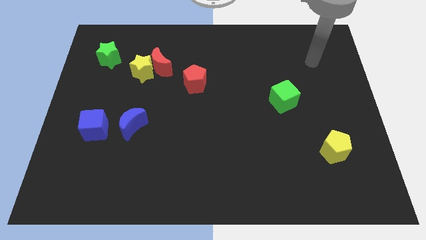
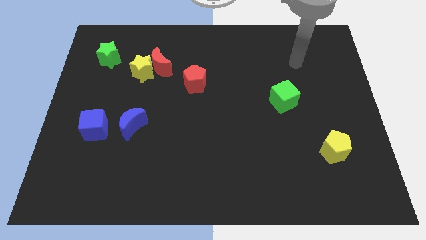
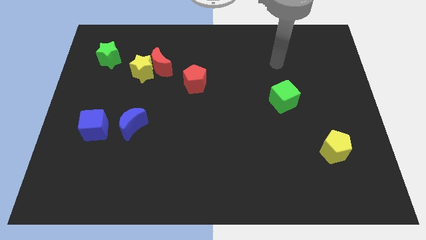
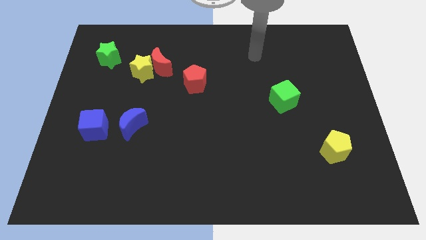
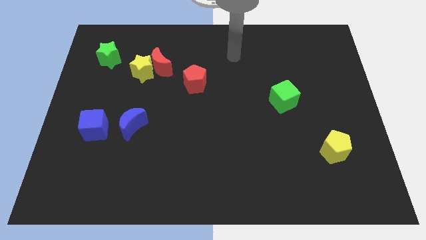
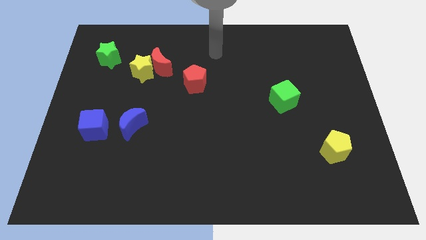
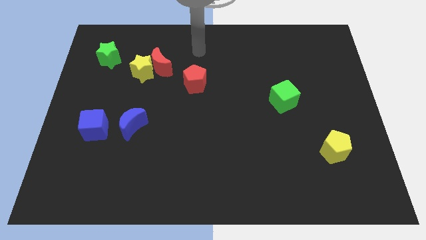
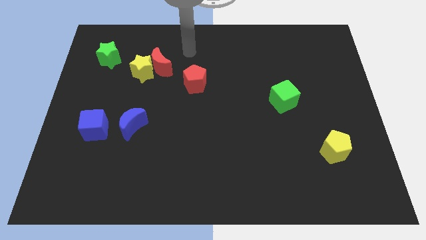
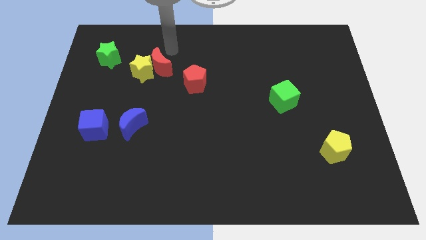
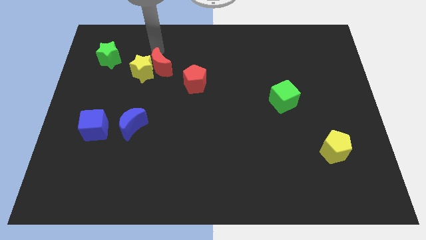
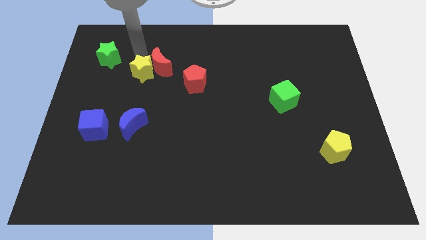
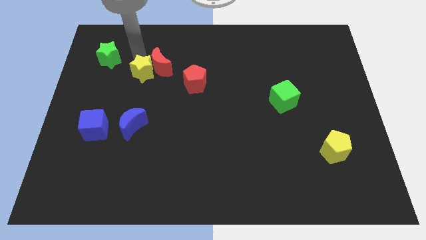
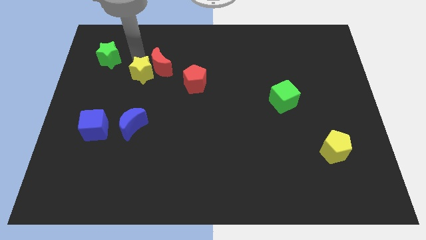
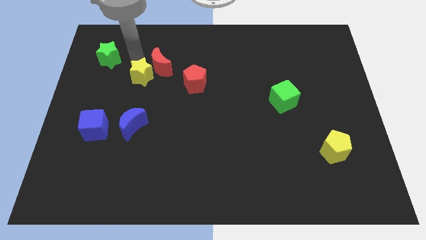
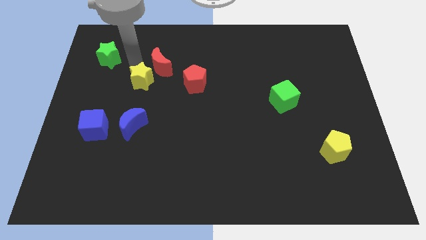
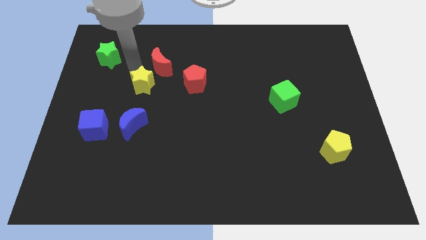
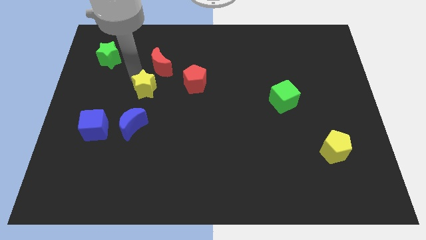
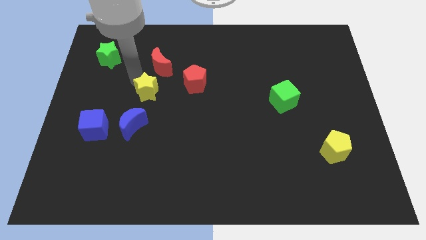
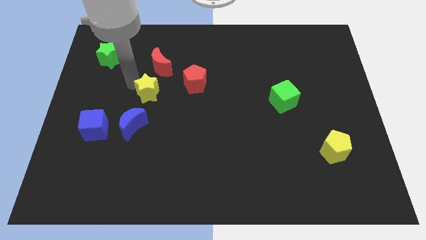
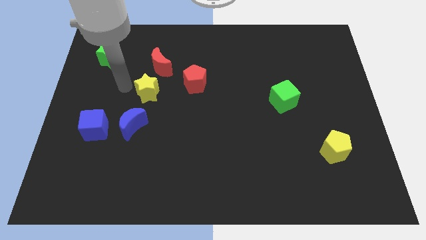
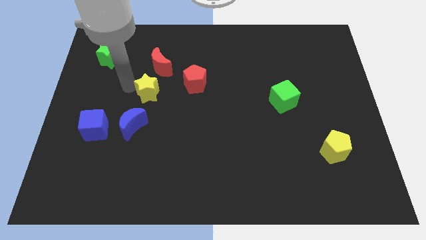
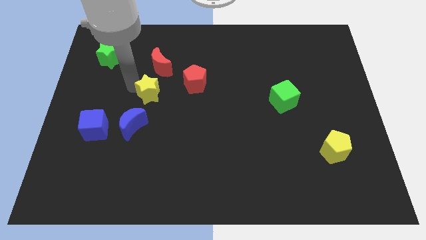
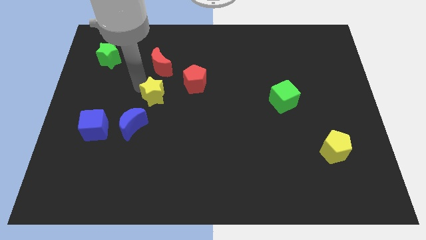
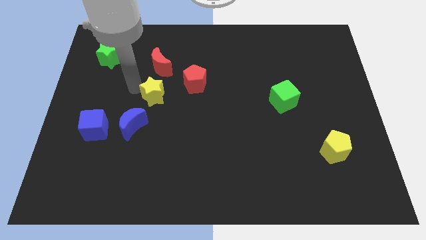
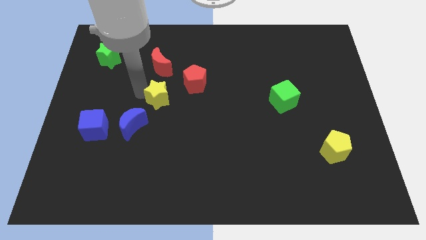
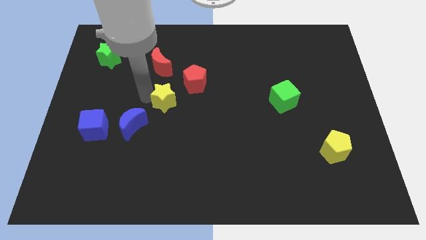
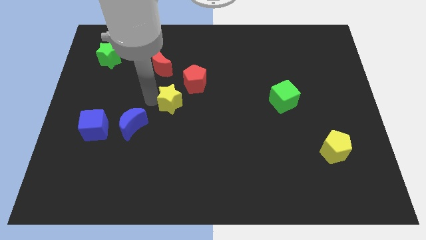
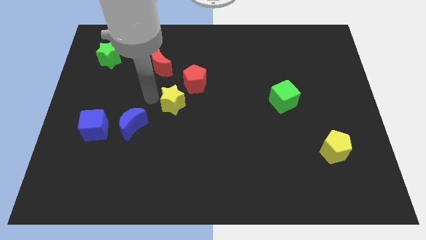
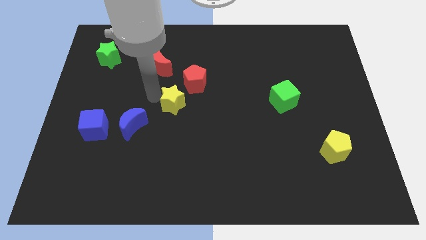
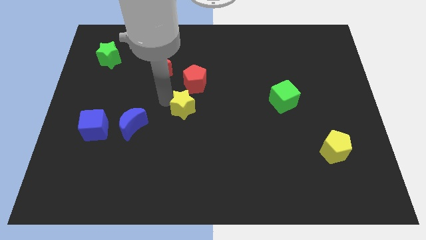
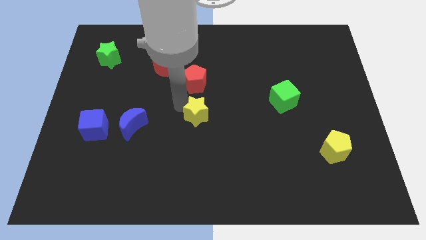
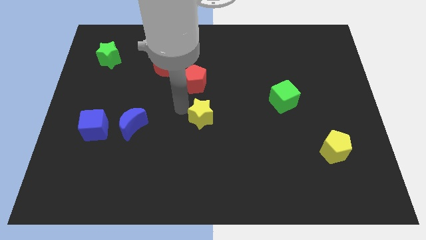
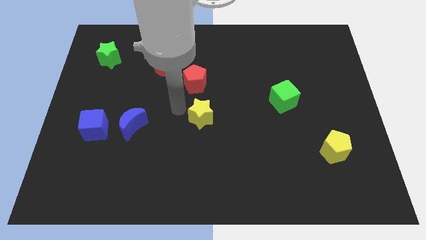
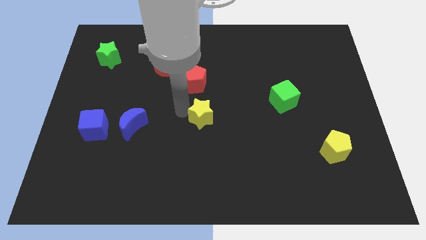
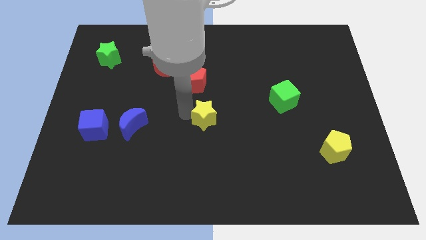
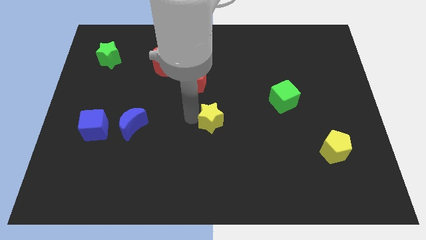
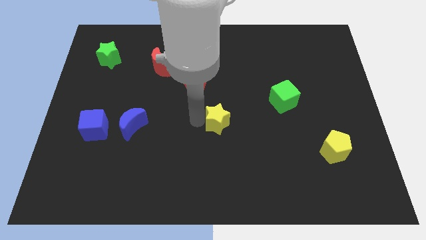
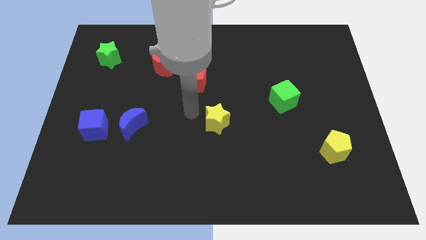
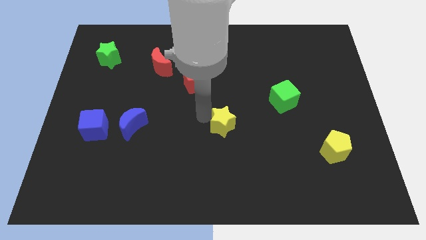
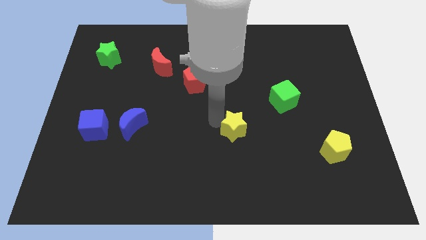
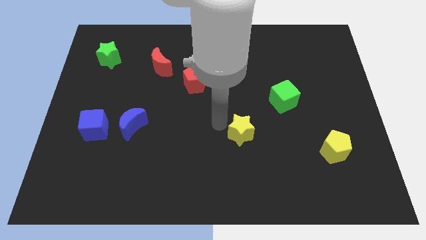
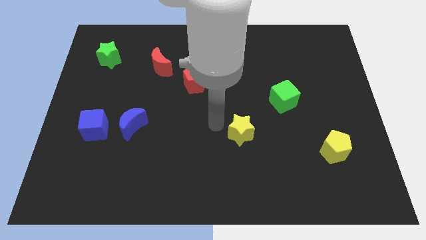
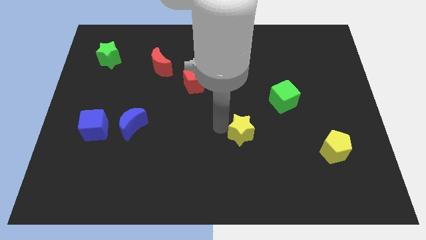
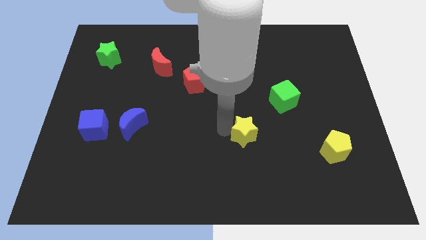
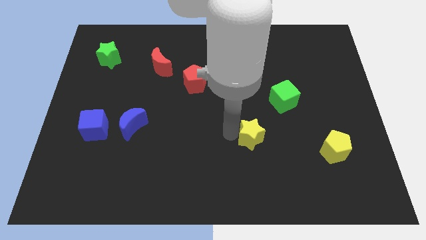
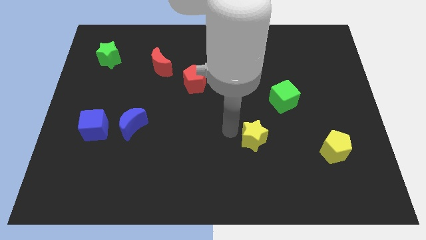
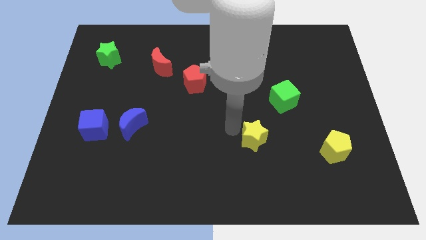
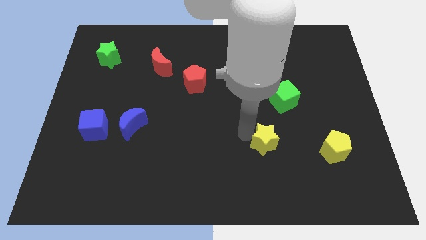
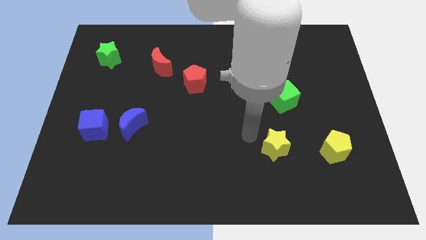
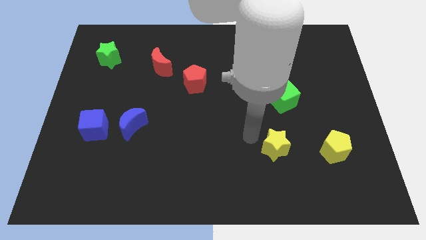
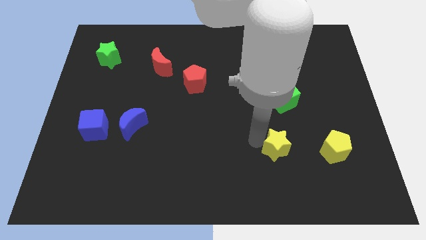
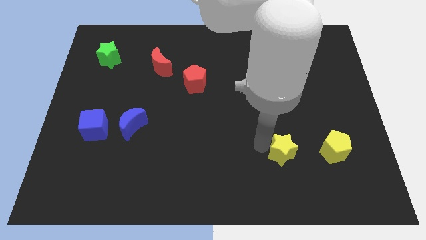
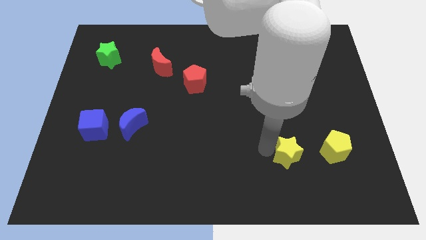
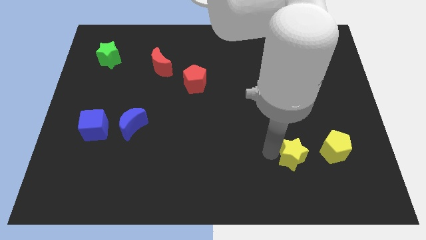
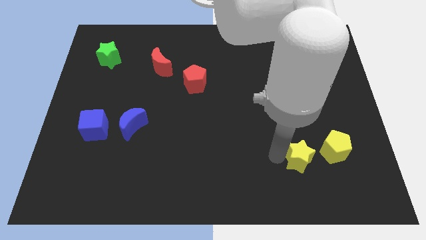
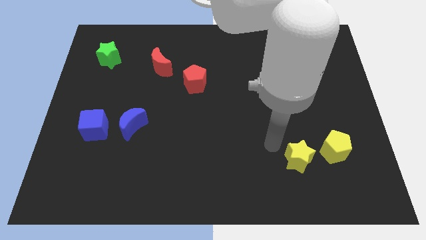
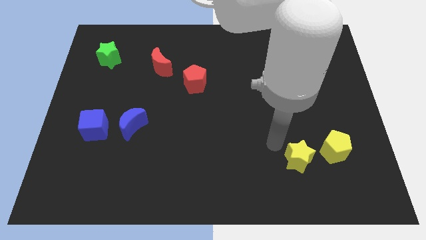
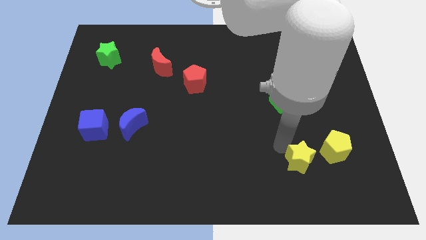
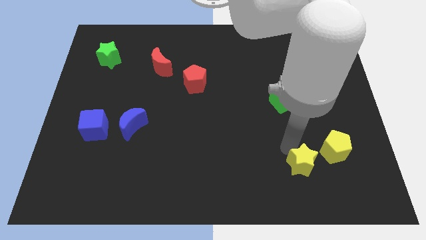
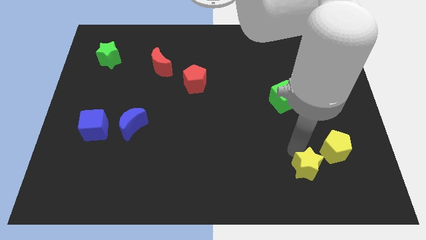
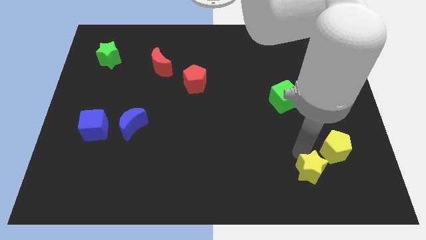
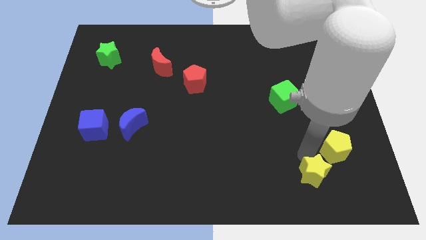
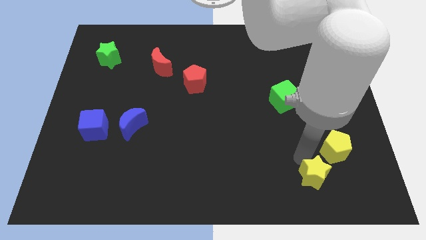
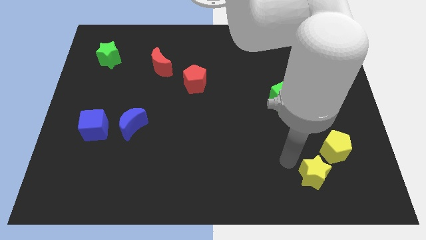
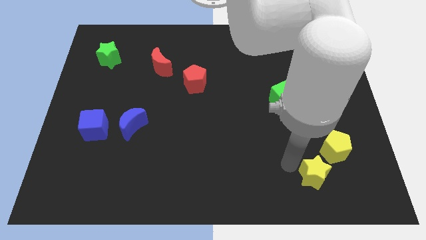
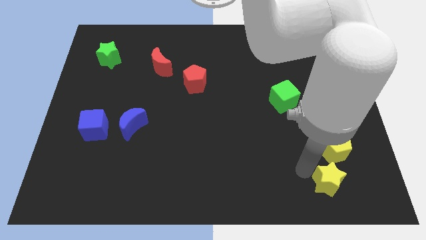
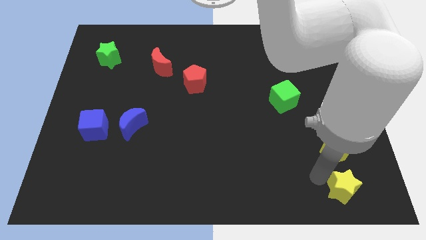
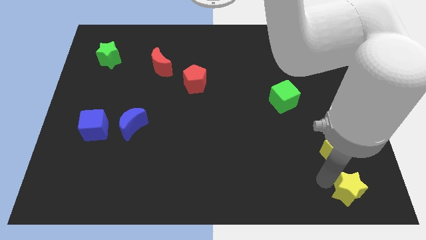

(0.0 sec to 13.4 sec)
move the yellow star to the bottom right corner
